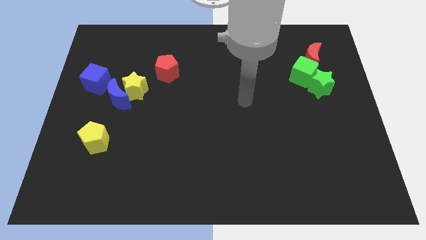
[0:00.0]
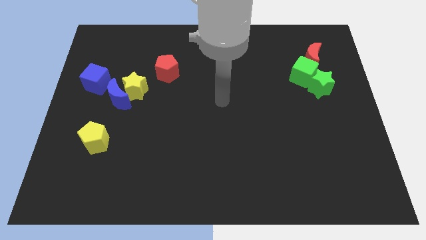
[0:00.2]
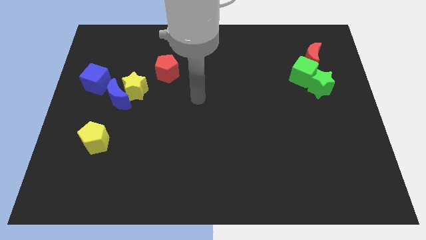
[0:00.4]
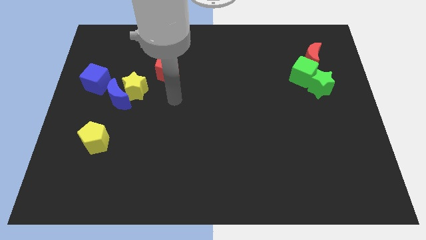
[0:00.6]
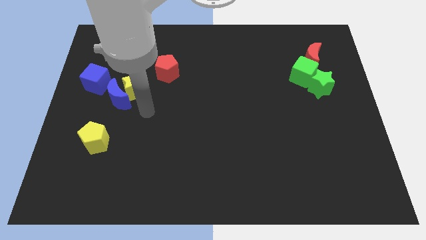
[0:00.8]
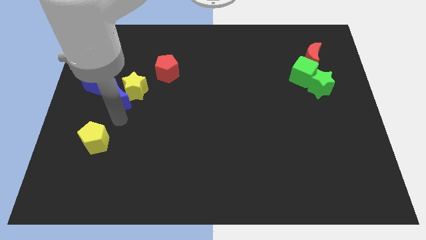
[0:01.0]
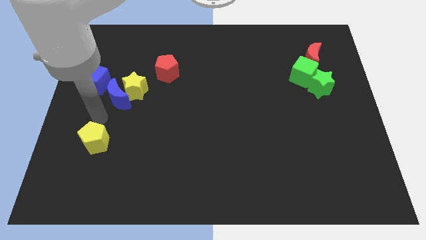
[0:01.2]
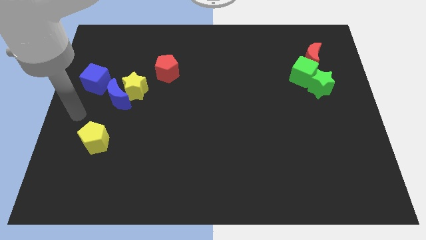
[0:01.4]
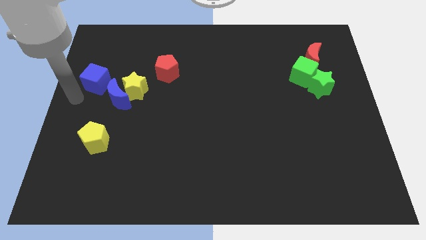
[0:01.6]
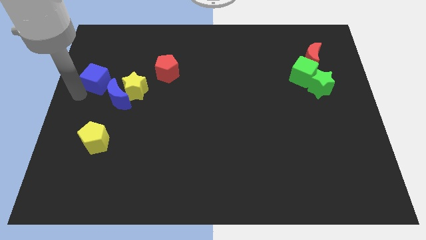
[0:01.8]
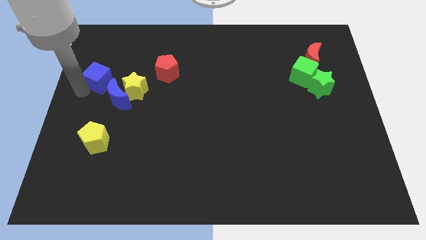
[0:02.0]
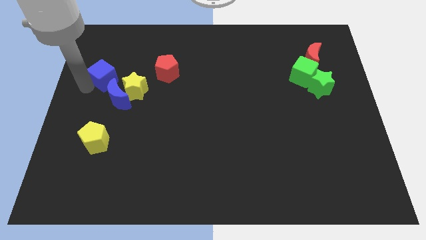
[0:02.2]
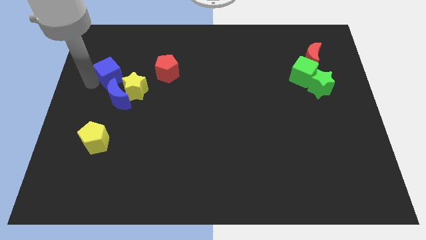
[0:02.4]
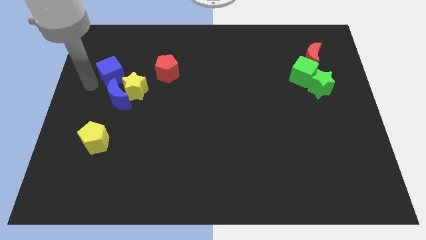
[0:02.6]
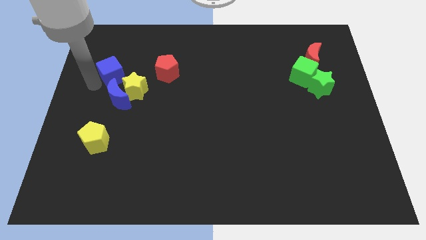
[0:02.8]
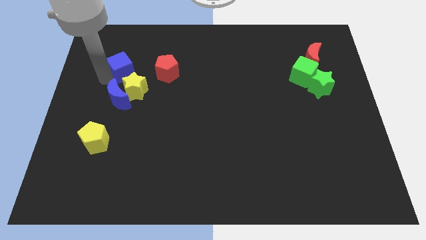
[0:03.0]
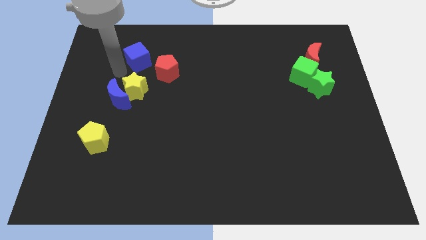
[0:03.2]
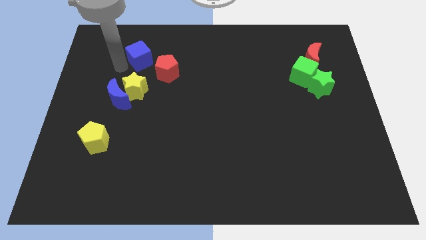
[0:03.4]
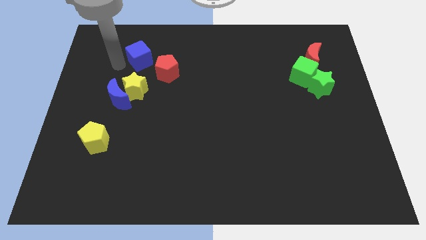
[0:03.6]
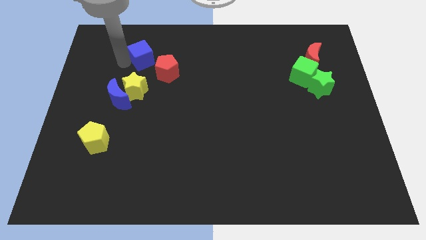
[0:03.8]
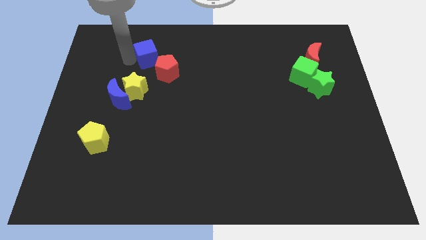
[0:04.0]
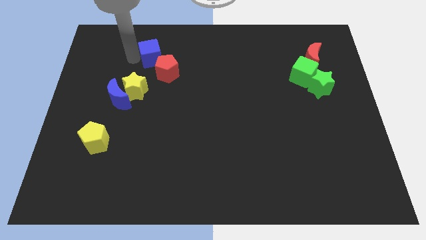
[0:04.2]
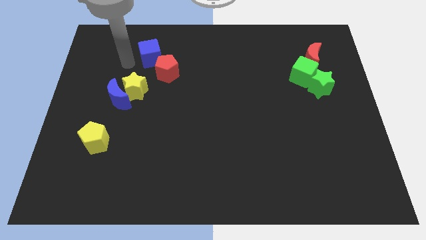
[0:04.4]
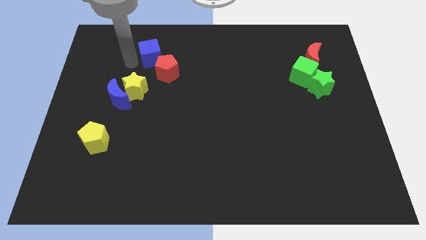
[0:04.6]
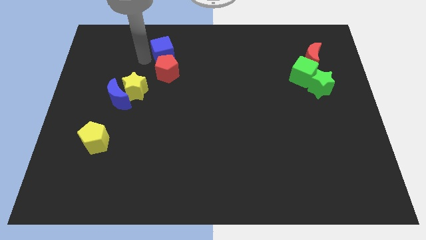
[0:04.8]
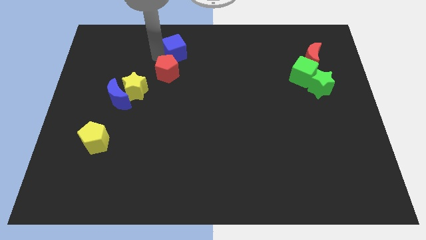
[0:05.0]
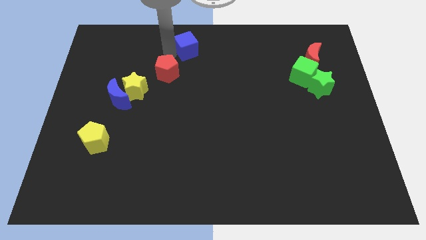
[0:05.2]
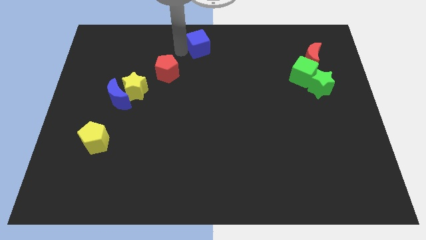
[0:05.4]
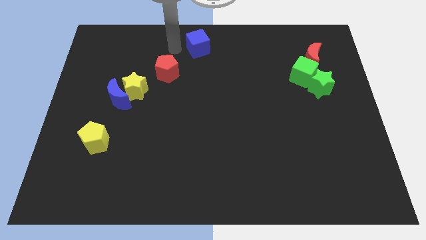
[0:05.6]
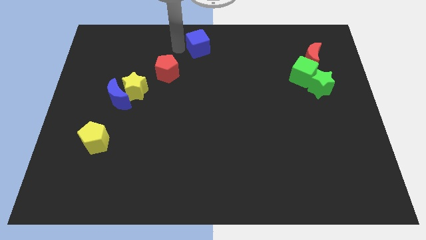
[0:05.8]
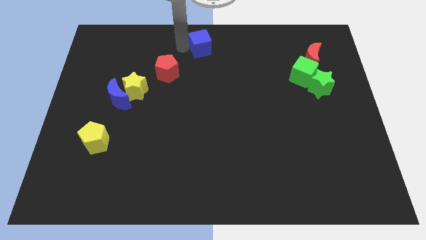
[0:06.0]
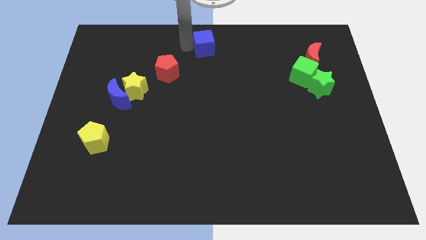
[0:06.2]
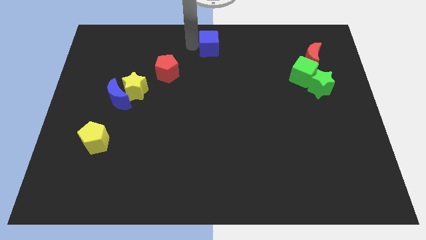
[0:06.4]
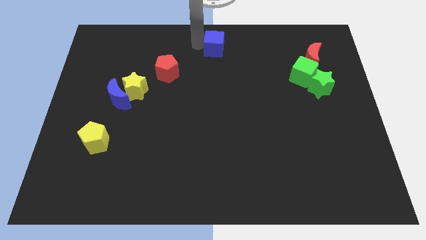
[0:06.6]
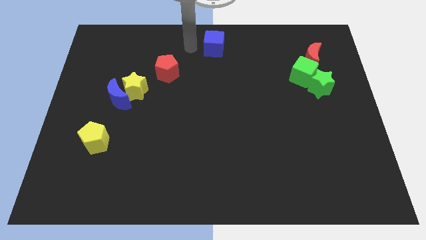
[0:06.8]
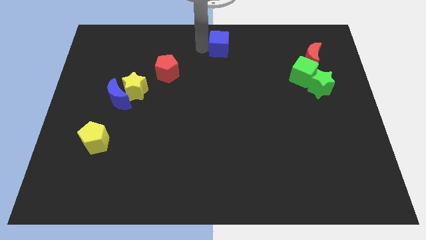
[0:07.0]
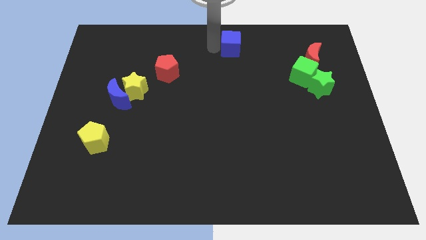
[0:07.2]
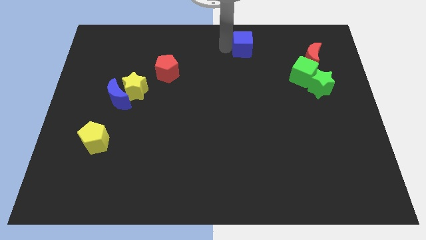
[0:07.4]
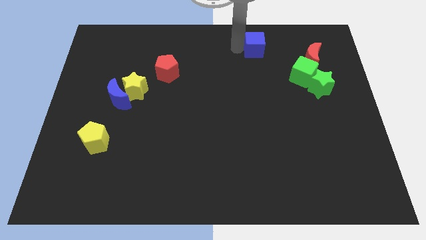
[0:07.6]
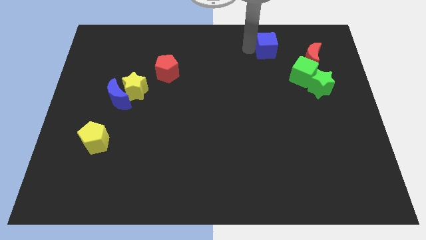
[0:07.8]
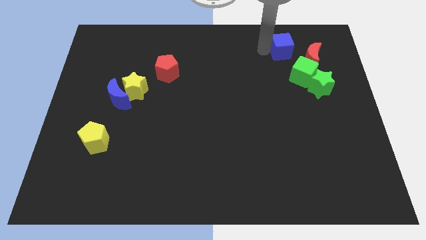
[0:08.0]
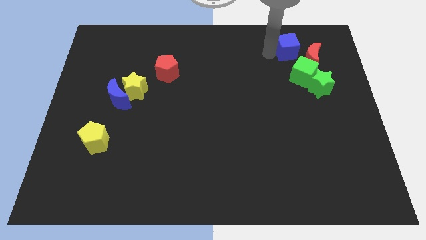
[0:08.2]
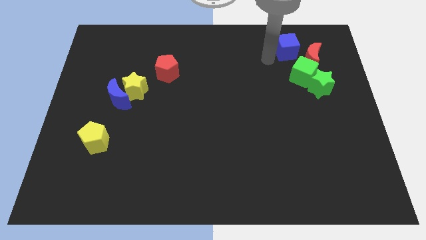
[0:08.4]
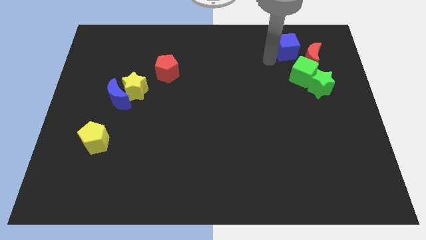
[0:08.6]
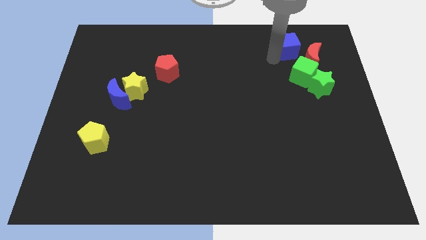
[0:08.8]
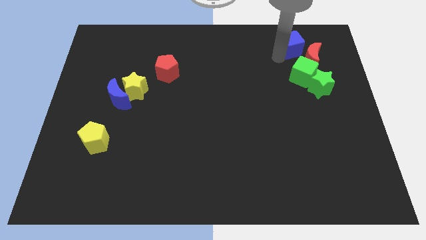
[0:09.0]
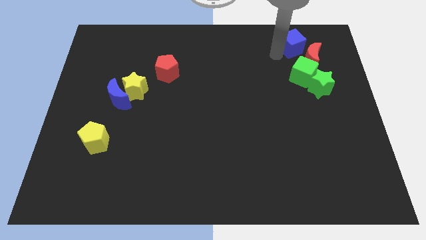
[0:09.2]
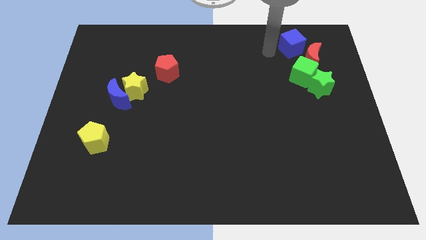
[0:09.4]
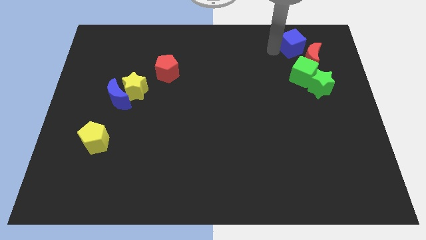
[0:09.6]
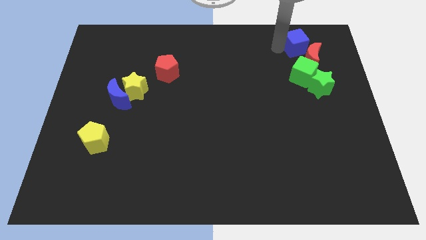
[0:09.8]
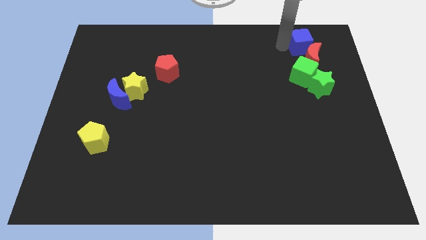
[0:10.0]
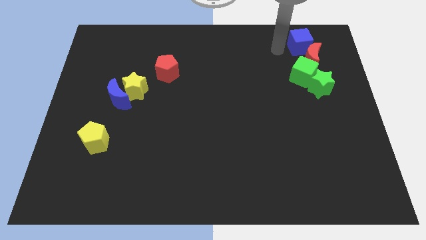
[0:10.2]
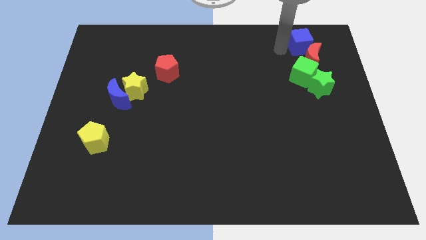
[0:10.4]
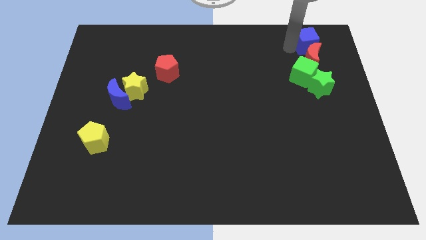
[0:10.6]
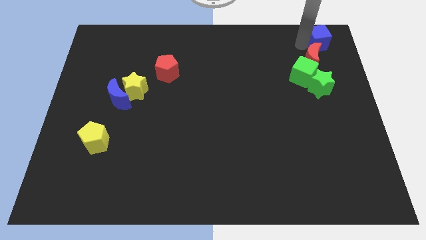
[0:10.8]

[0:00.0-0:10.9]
move the blue cube to the top right corner

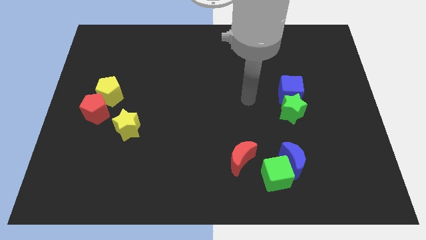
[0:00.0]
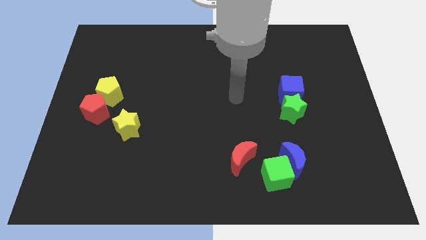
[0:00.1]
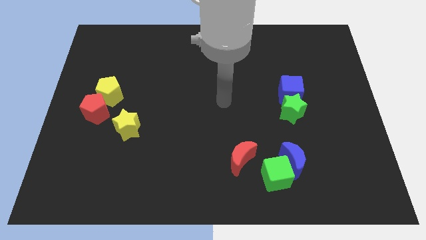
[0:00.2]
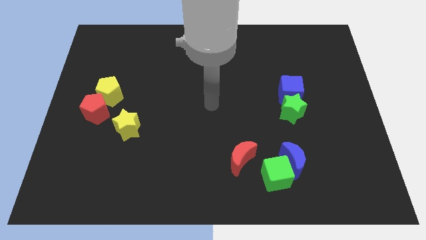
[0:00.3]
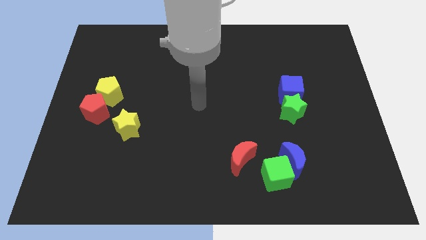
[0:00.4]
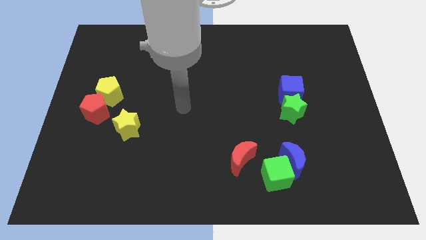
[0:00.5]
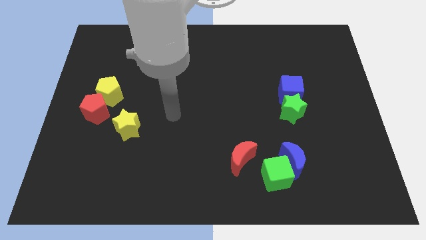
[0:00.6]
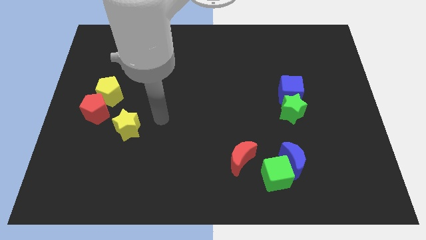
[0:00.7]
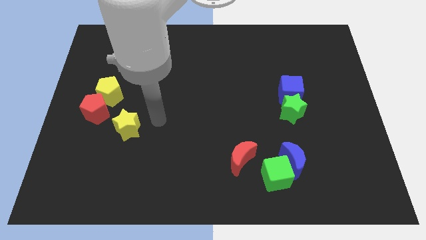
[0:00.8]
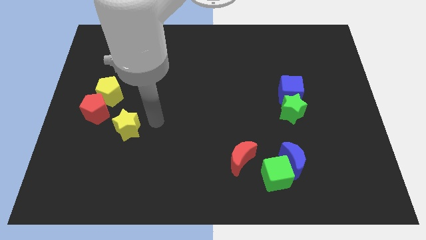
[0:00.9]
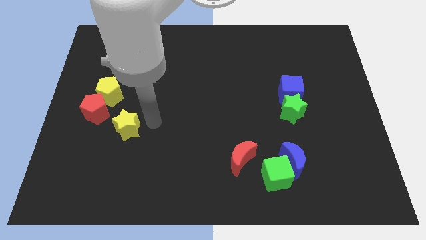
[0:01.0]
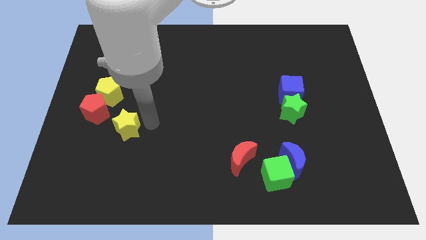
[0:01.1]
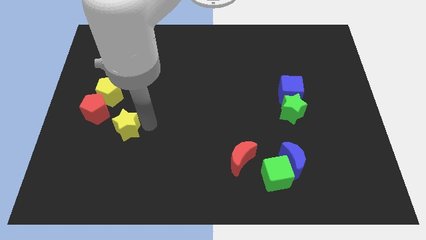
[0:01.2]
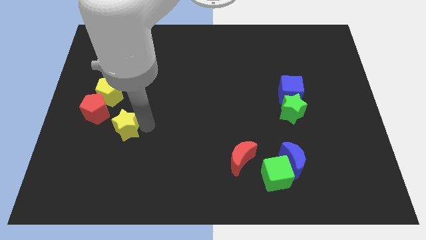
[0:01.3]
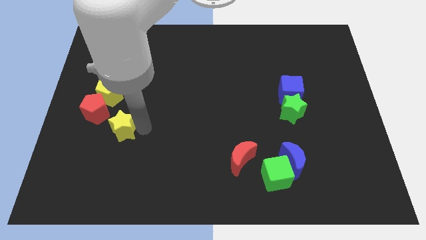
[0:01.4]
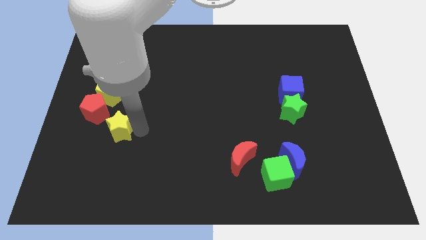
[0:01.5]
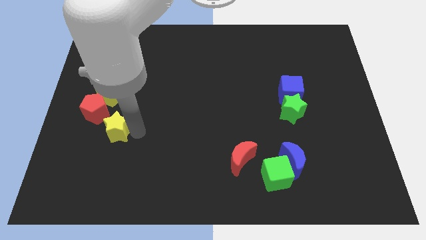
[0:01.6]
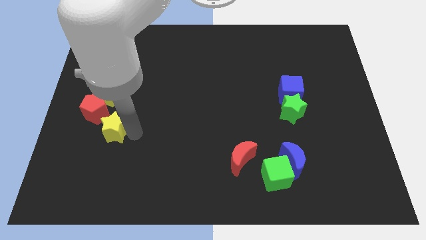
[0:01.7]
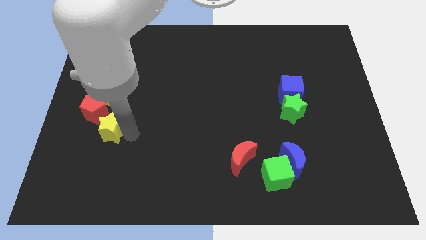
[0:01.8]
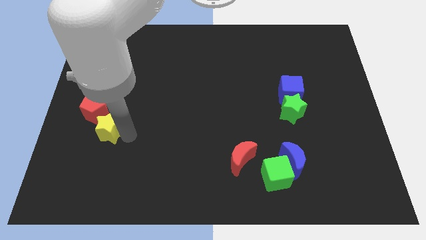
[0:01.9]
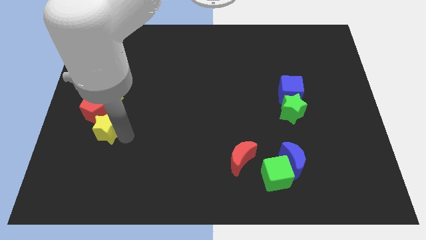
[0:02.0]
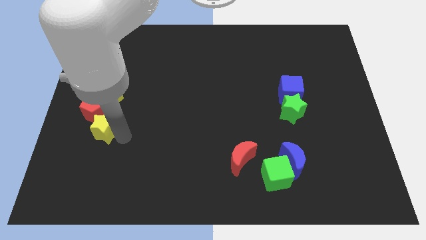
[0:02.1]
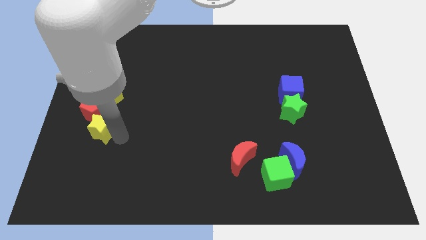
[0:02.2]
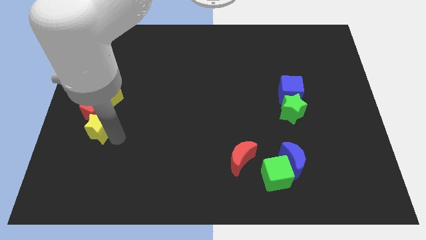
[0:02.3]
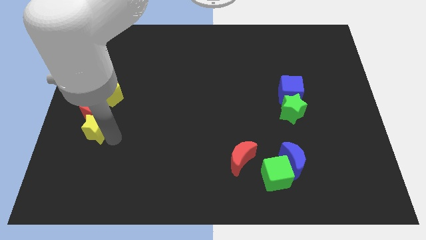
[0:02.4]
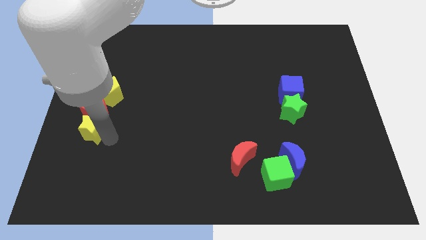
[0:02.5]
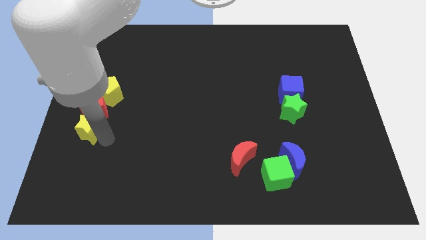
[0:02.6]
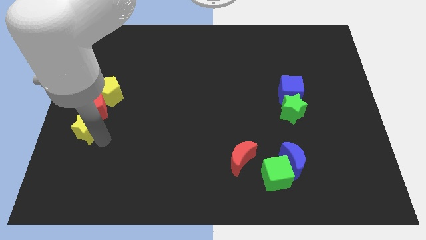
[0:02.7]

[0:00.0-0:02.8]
push the yellow star to the center left
